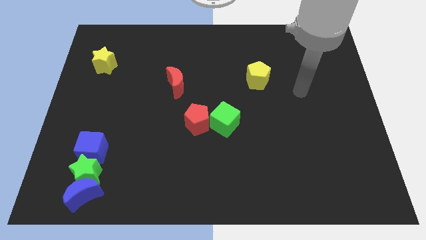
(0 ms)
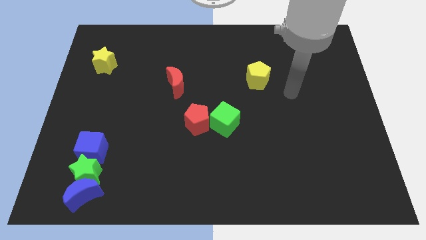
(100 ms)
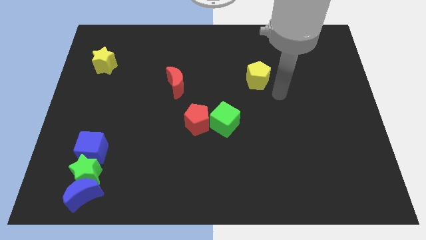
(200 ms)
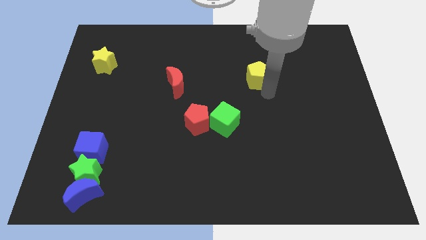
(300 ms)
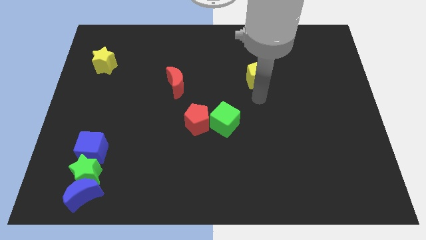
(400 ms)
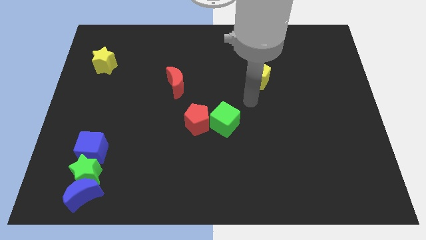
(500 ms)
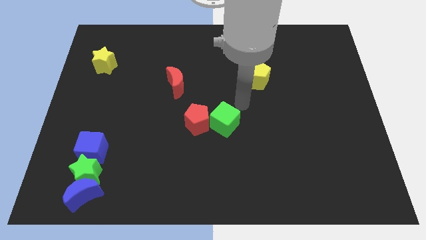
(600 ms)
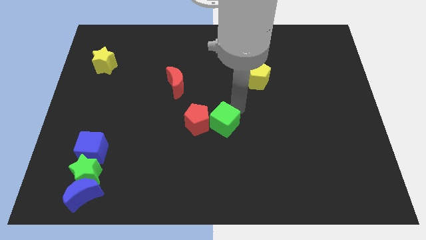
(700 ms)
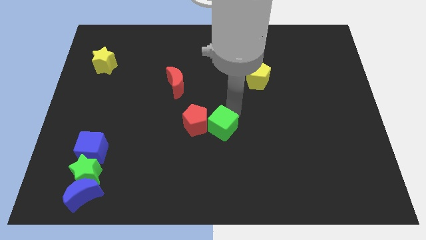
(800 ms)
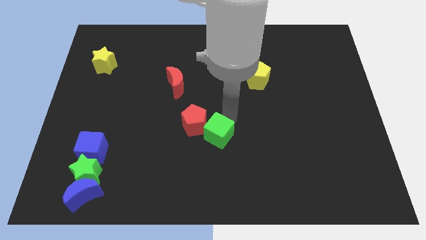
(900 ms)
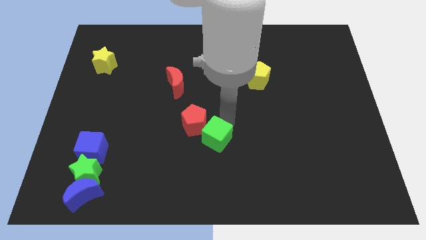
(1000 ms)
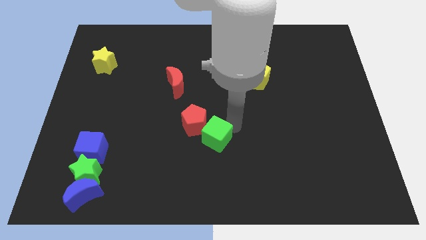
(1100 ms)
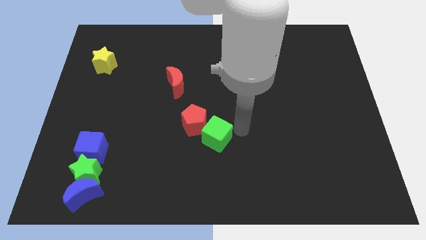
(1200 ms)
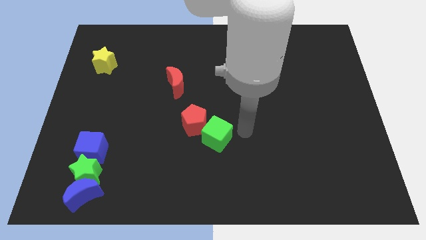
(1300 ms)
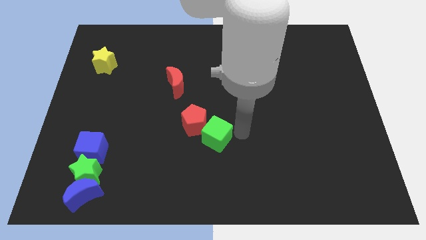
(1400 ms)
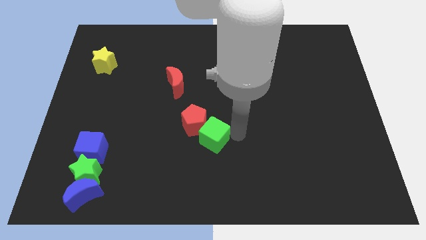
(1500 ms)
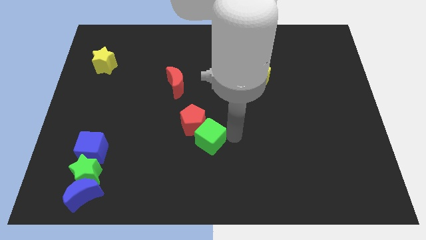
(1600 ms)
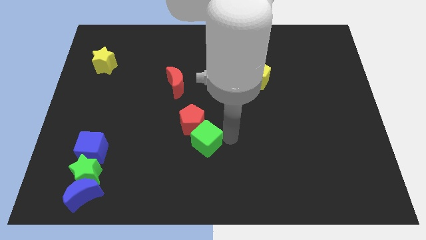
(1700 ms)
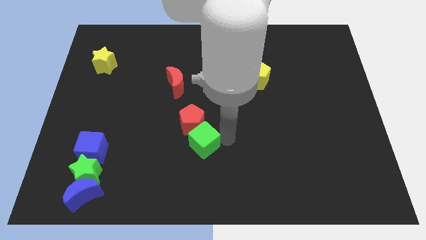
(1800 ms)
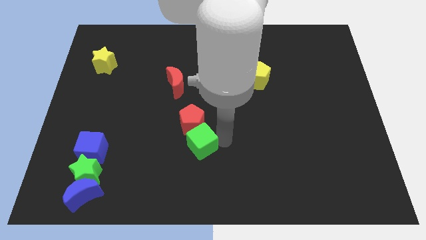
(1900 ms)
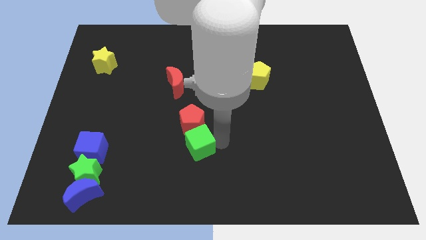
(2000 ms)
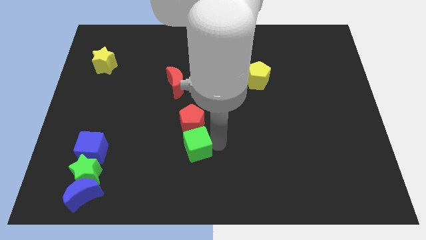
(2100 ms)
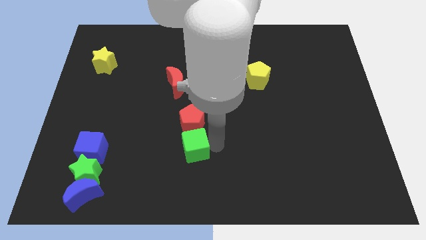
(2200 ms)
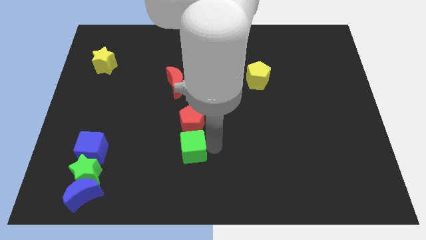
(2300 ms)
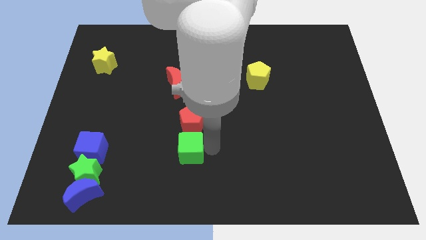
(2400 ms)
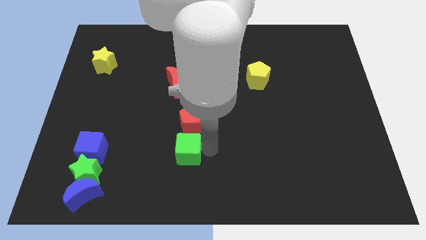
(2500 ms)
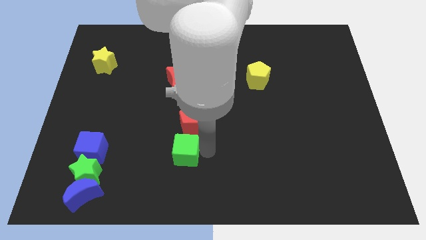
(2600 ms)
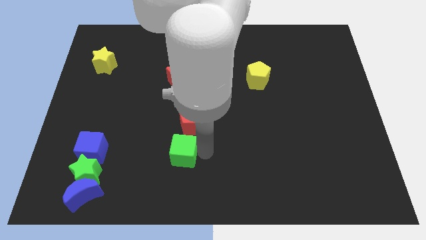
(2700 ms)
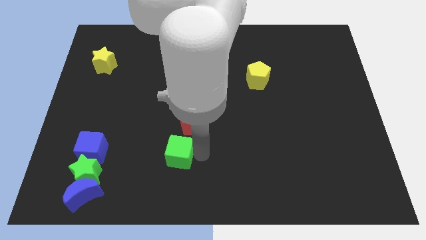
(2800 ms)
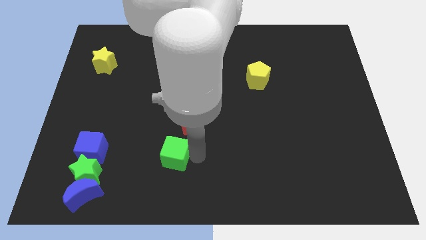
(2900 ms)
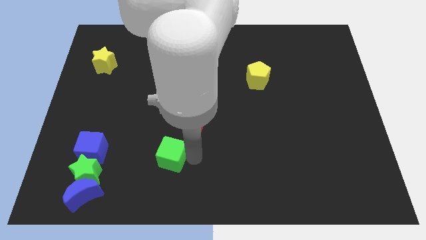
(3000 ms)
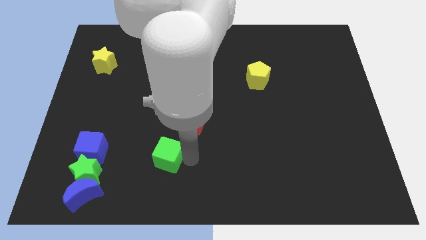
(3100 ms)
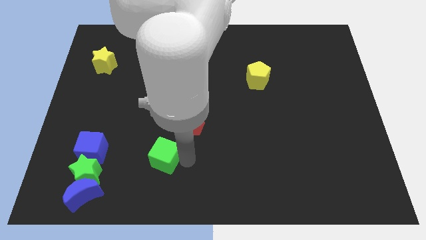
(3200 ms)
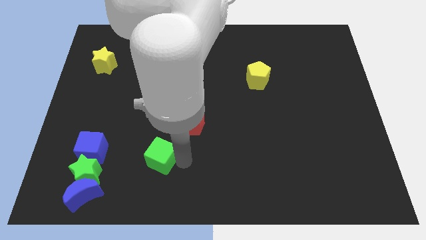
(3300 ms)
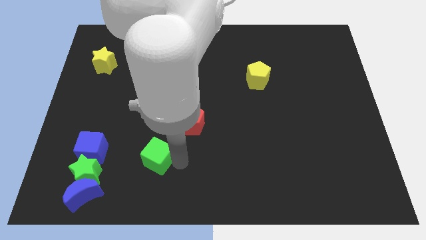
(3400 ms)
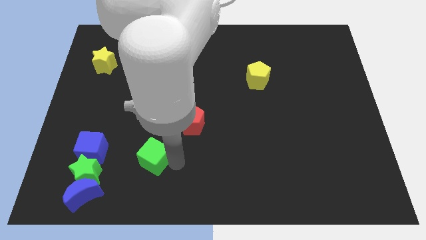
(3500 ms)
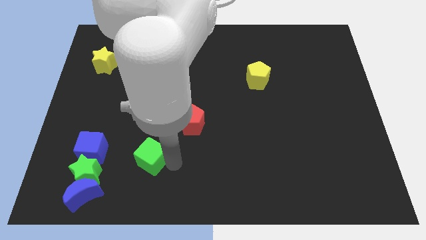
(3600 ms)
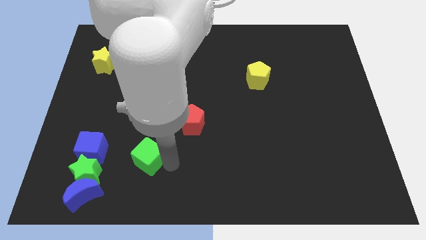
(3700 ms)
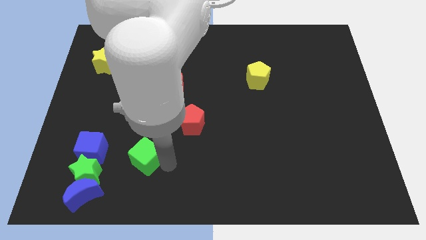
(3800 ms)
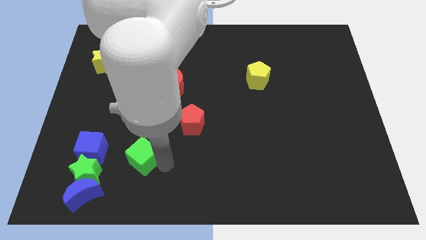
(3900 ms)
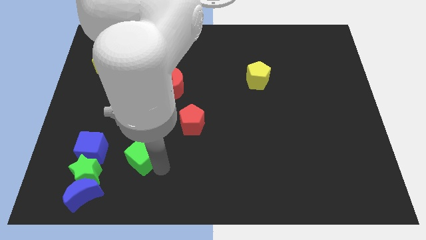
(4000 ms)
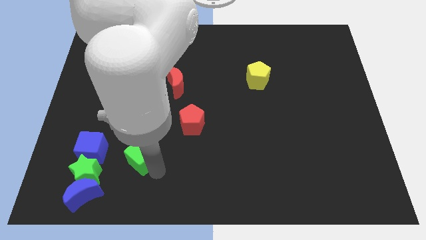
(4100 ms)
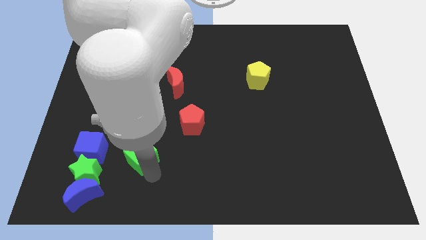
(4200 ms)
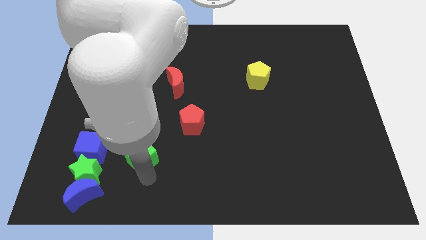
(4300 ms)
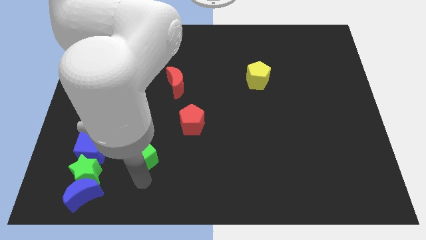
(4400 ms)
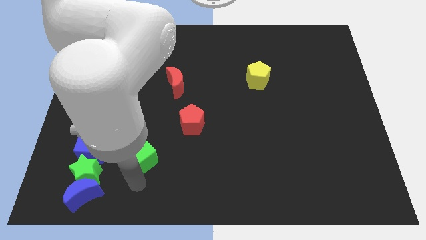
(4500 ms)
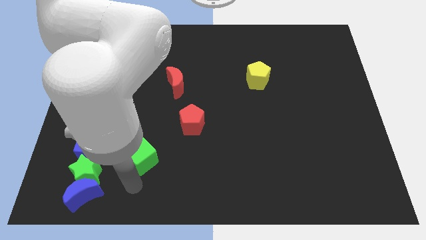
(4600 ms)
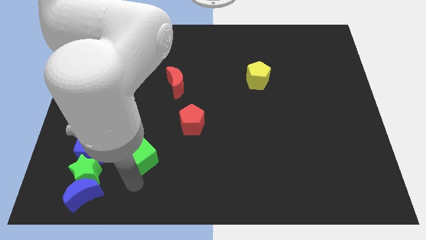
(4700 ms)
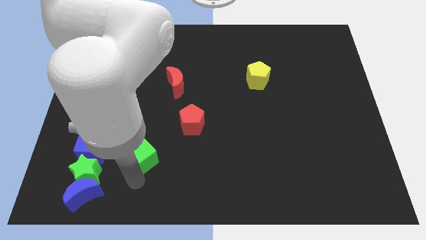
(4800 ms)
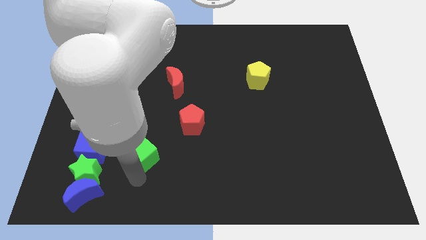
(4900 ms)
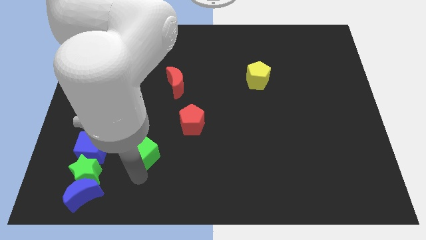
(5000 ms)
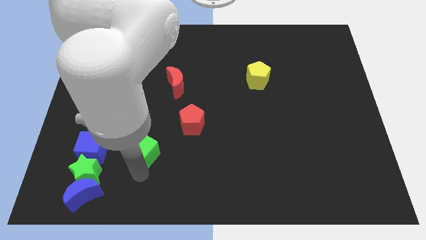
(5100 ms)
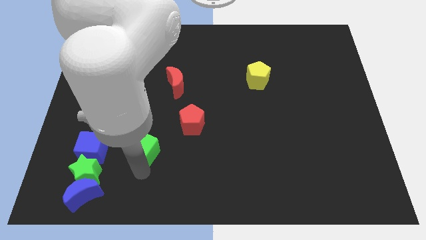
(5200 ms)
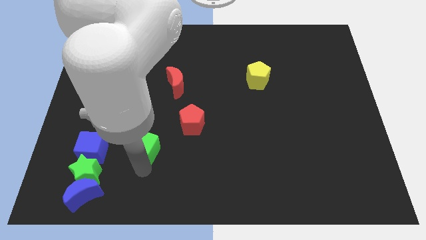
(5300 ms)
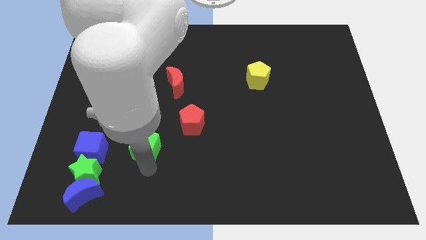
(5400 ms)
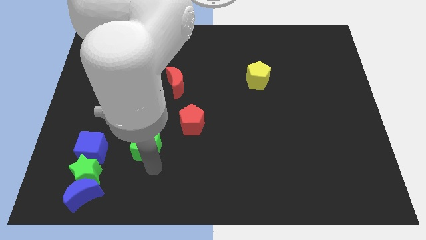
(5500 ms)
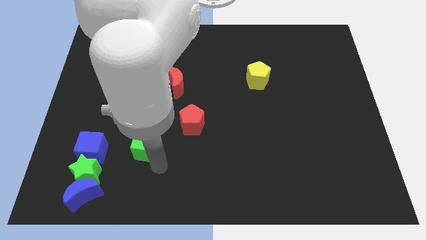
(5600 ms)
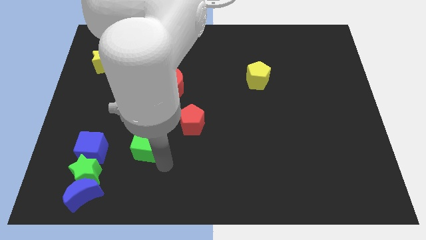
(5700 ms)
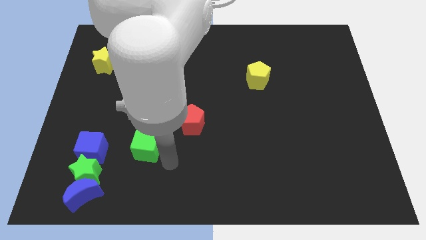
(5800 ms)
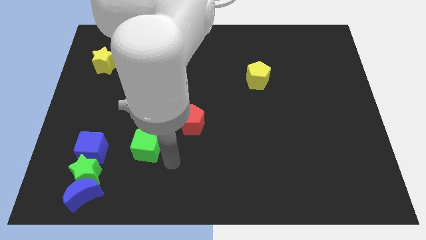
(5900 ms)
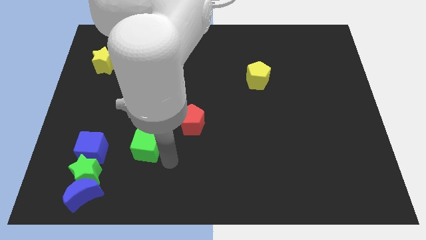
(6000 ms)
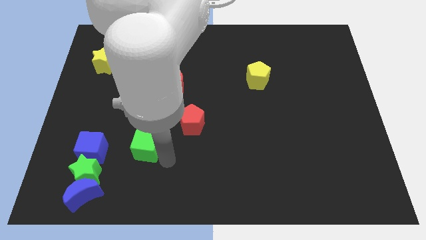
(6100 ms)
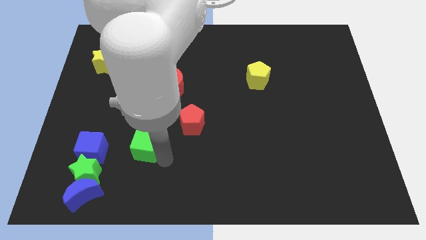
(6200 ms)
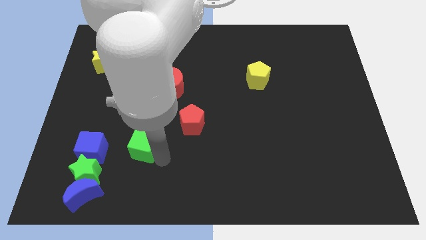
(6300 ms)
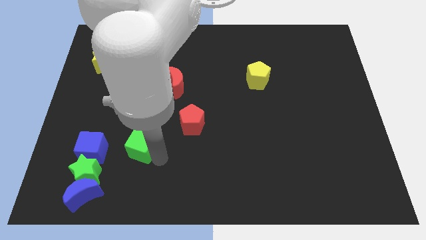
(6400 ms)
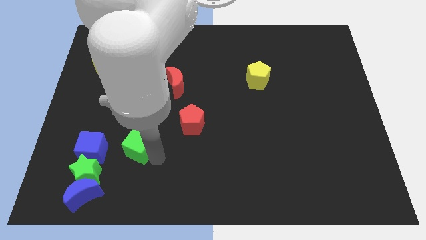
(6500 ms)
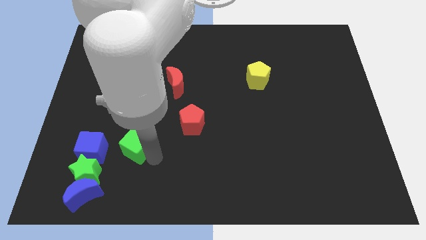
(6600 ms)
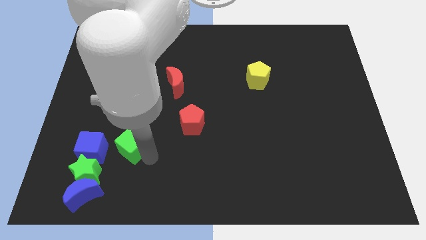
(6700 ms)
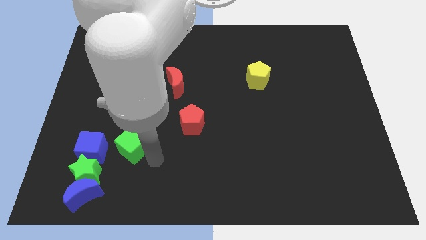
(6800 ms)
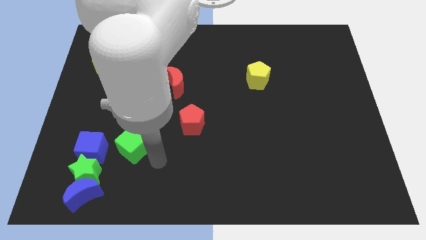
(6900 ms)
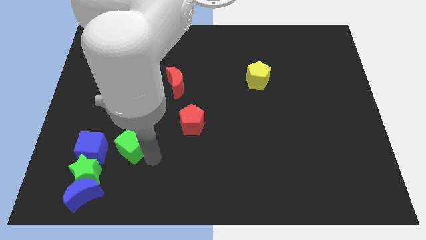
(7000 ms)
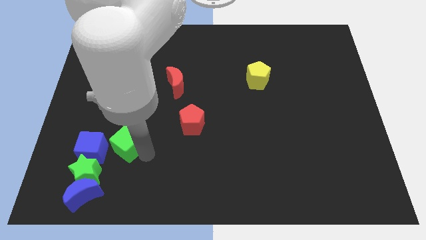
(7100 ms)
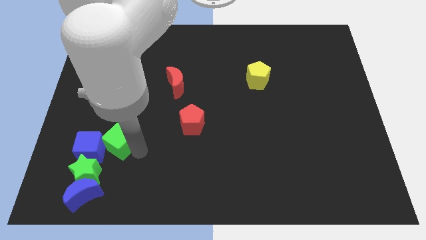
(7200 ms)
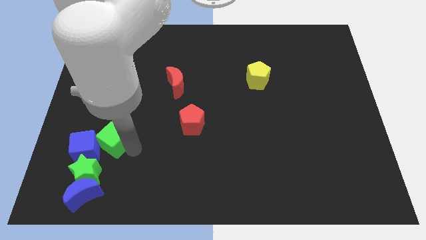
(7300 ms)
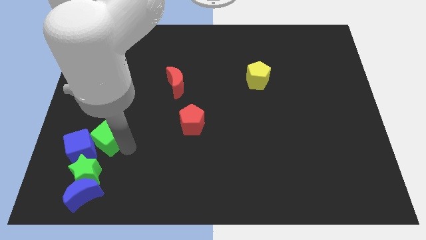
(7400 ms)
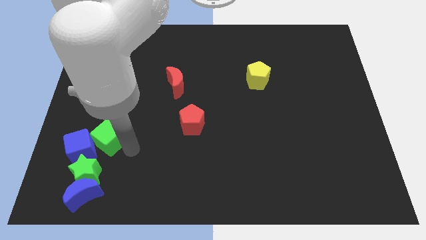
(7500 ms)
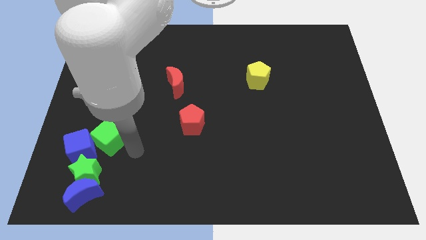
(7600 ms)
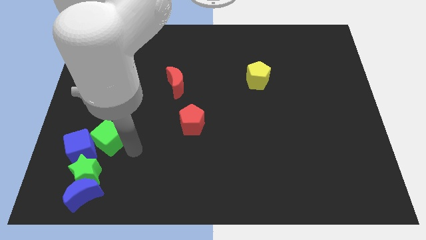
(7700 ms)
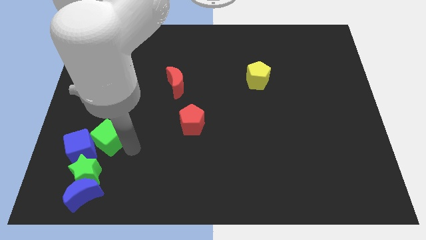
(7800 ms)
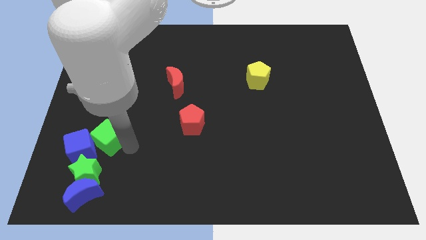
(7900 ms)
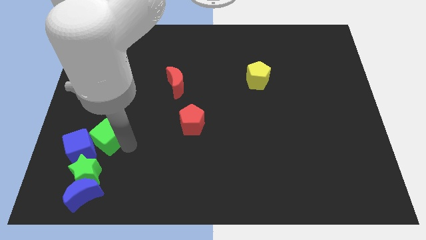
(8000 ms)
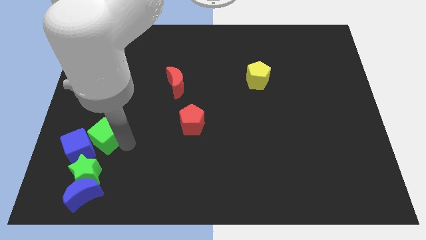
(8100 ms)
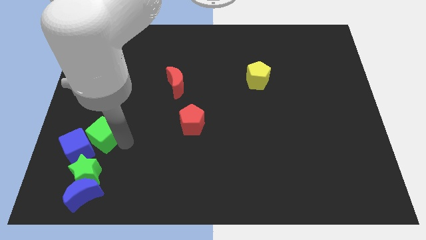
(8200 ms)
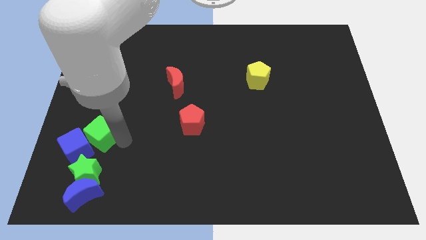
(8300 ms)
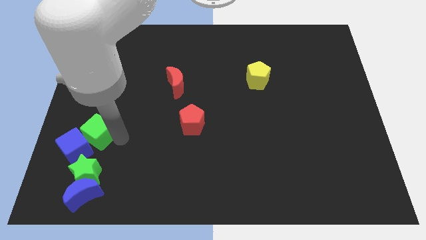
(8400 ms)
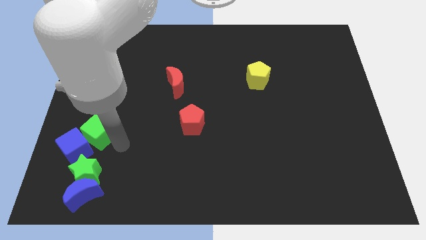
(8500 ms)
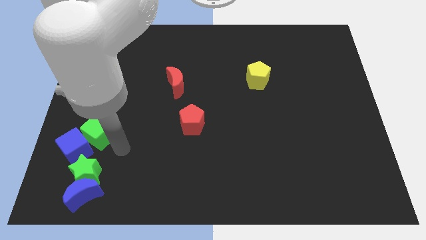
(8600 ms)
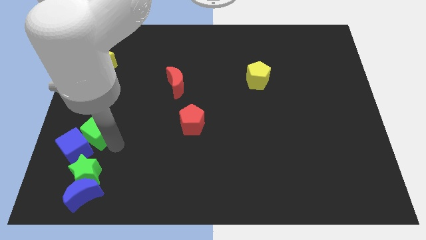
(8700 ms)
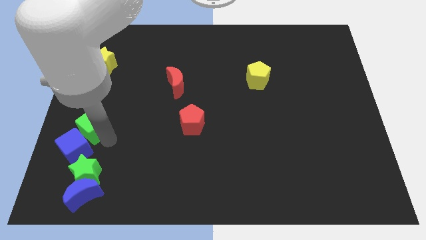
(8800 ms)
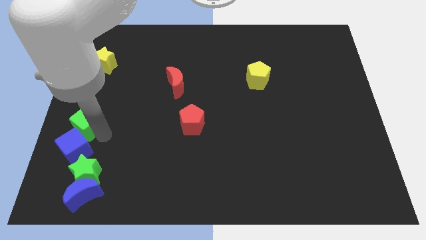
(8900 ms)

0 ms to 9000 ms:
put the green cube to the center left
